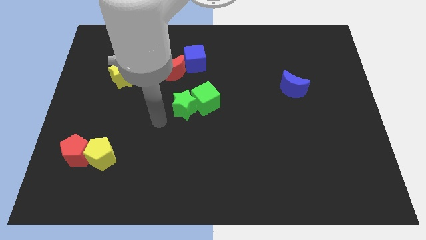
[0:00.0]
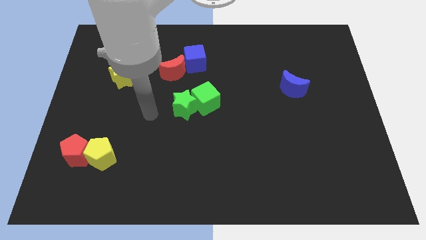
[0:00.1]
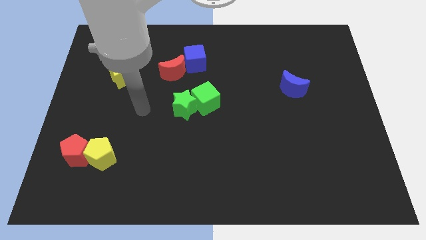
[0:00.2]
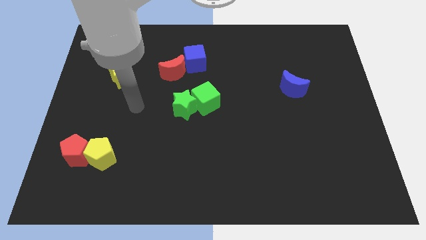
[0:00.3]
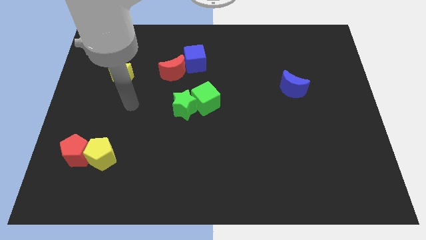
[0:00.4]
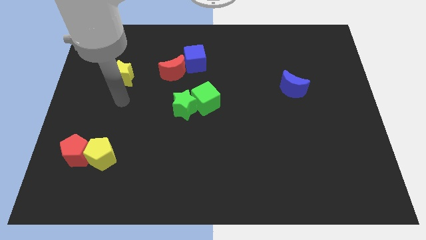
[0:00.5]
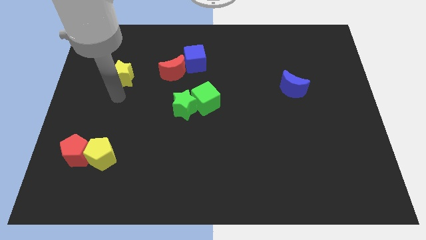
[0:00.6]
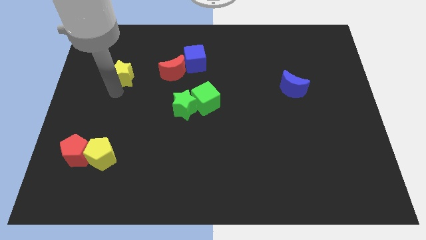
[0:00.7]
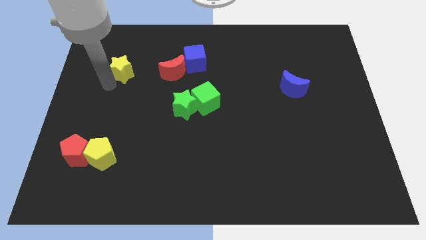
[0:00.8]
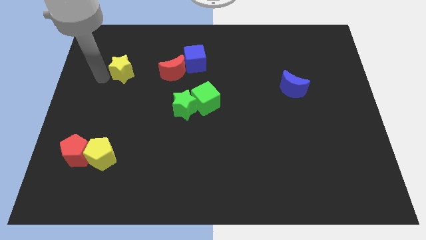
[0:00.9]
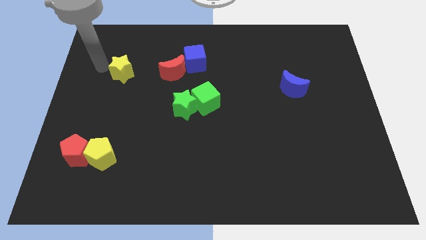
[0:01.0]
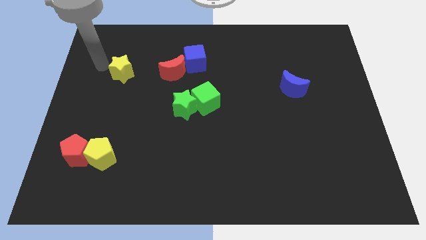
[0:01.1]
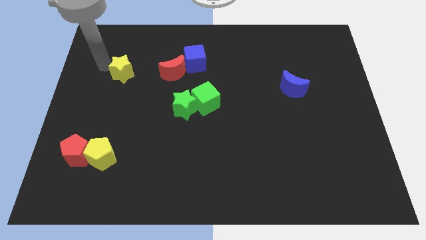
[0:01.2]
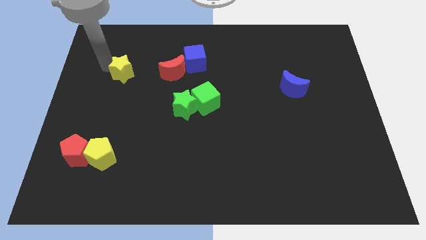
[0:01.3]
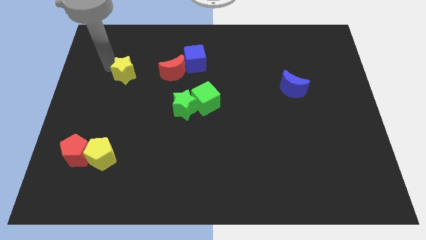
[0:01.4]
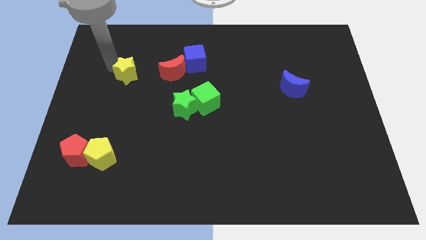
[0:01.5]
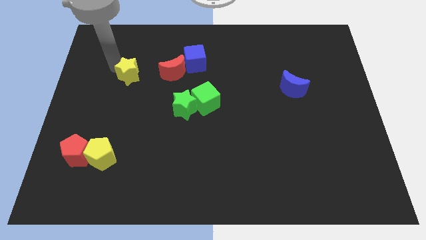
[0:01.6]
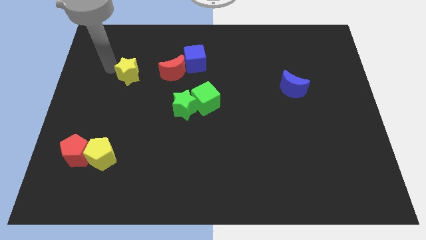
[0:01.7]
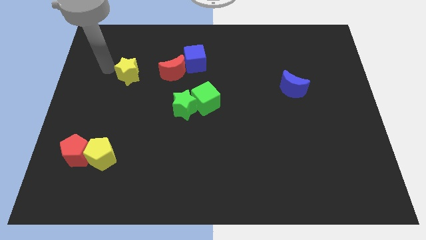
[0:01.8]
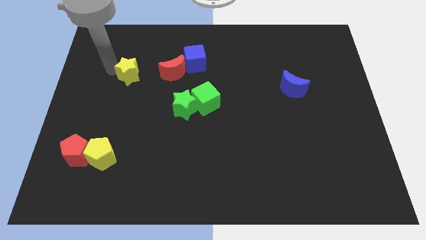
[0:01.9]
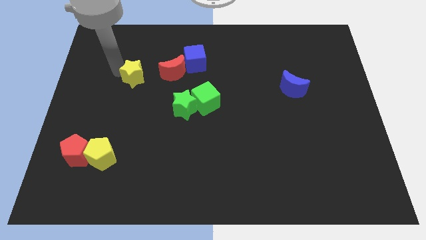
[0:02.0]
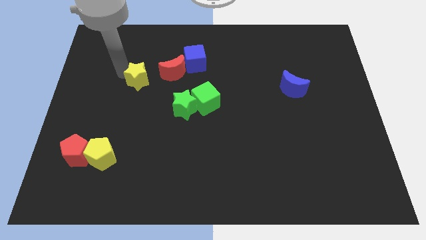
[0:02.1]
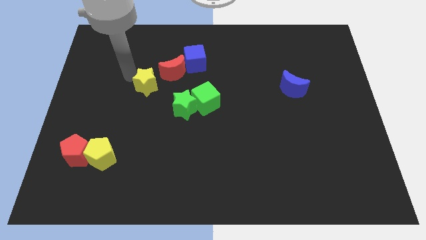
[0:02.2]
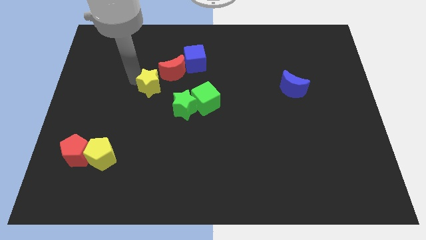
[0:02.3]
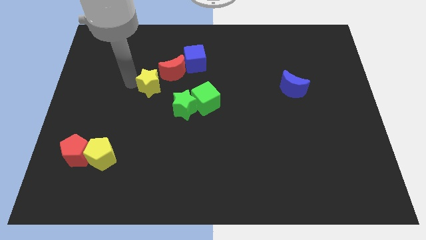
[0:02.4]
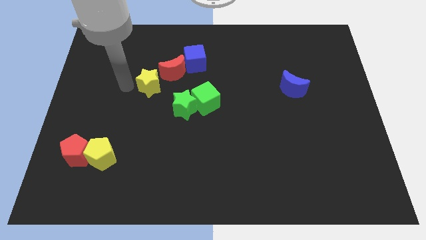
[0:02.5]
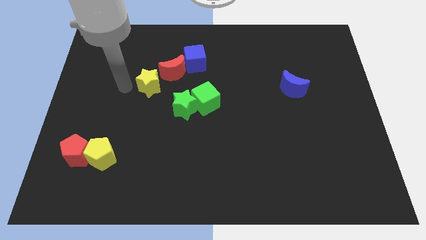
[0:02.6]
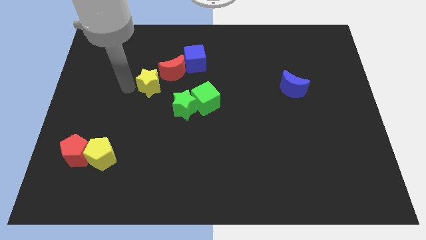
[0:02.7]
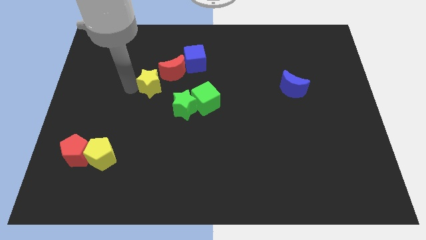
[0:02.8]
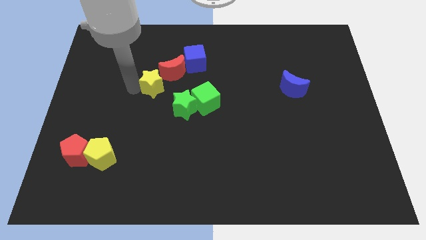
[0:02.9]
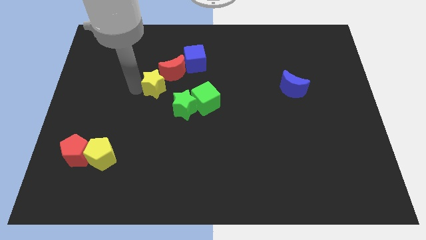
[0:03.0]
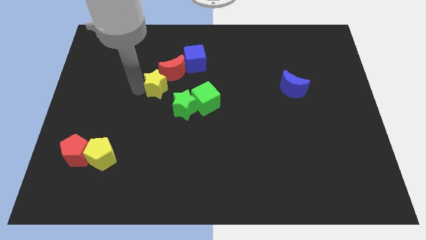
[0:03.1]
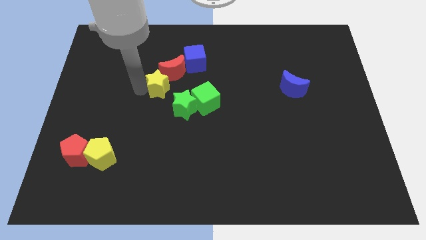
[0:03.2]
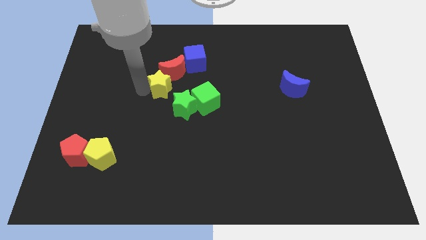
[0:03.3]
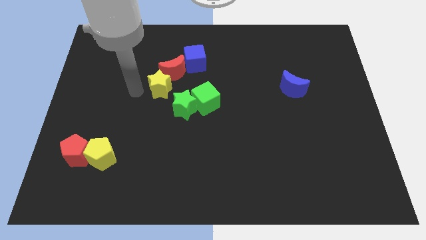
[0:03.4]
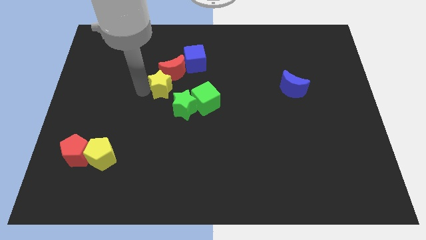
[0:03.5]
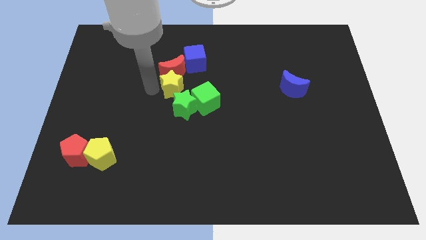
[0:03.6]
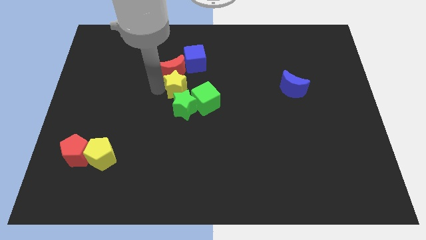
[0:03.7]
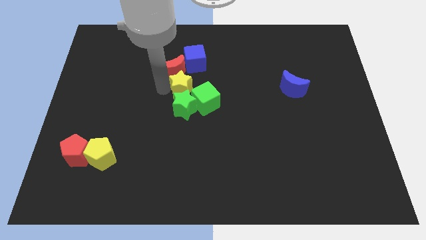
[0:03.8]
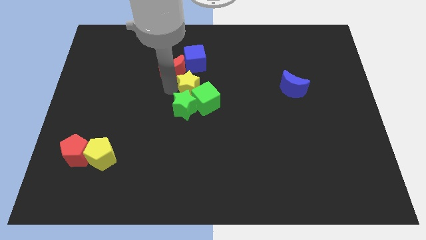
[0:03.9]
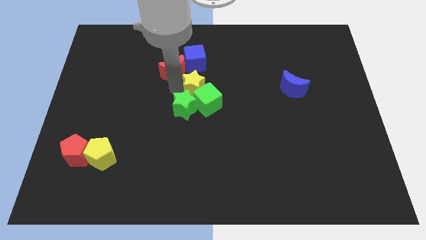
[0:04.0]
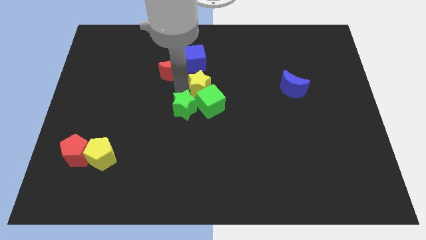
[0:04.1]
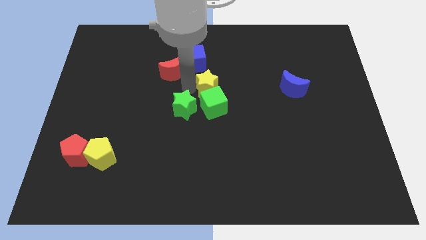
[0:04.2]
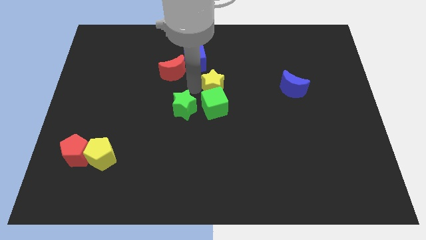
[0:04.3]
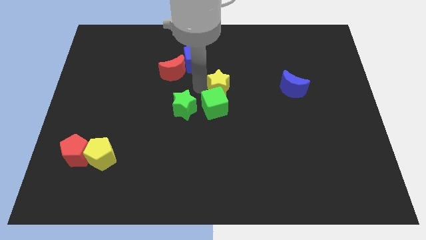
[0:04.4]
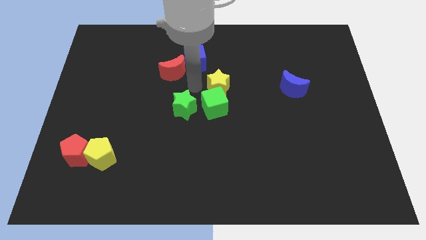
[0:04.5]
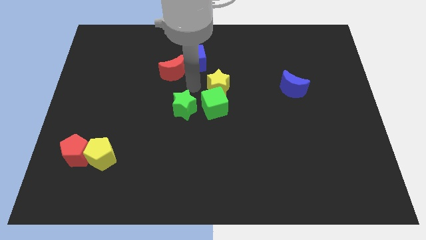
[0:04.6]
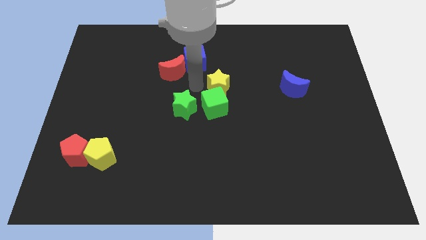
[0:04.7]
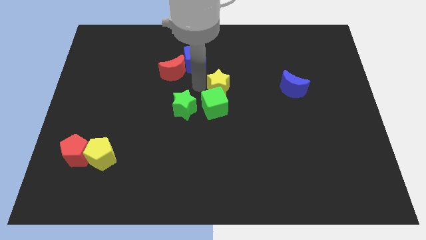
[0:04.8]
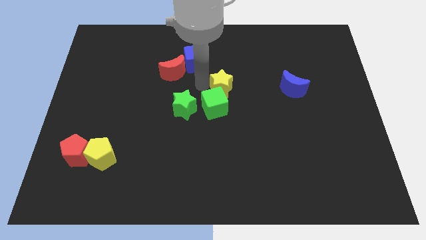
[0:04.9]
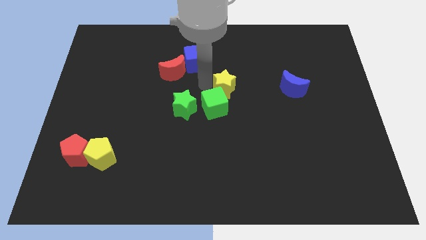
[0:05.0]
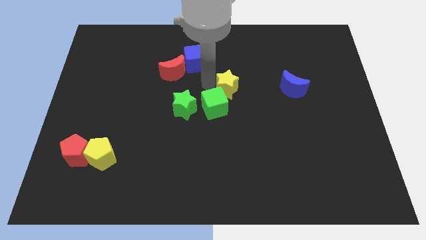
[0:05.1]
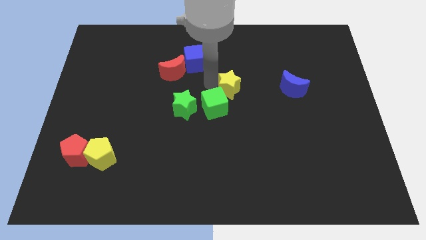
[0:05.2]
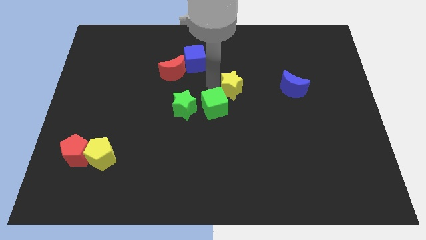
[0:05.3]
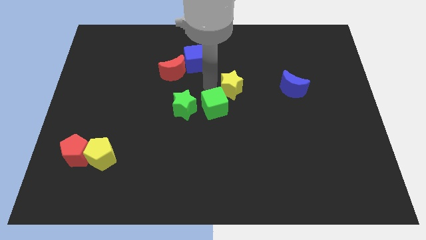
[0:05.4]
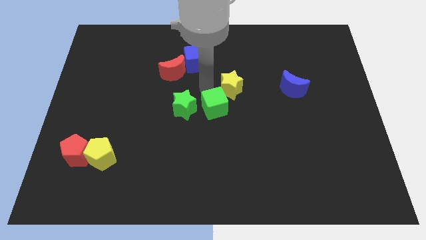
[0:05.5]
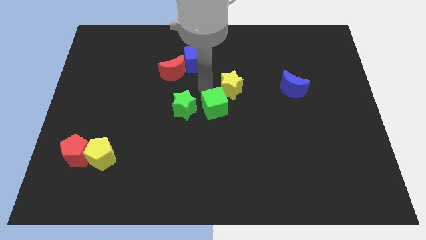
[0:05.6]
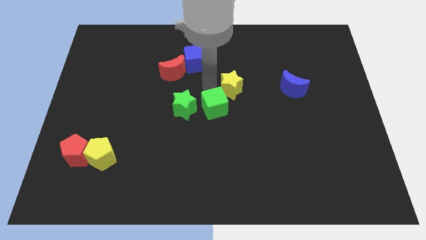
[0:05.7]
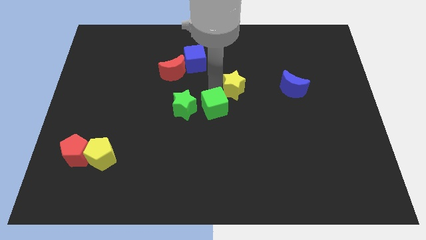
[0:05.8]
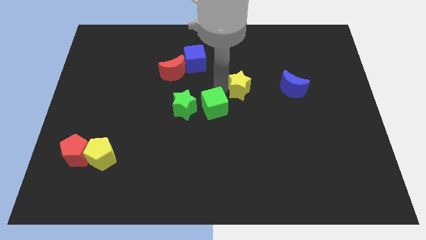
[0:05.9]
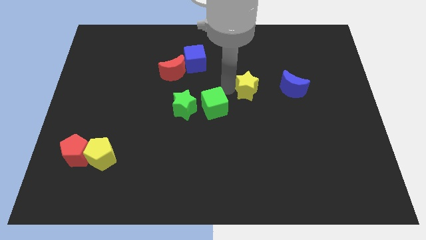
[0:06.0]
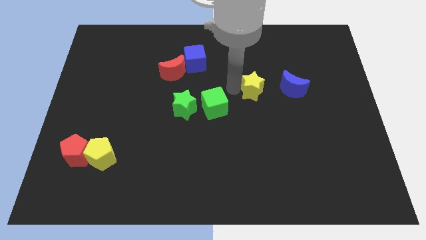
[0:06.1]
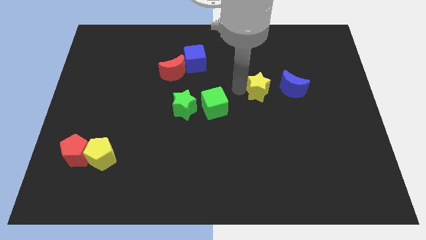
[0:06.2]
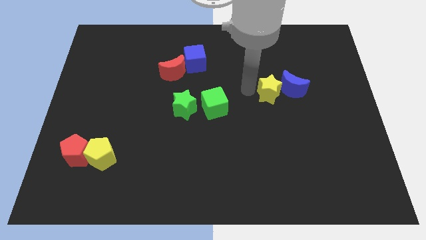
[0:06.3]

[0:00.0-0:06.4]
push the yellow star next to the blue moon

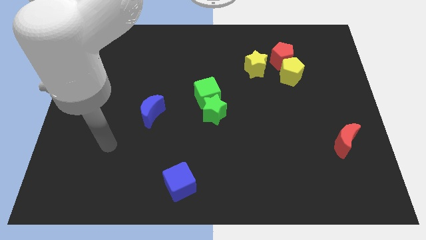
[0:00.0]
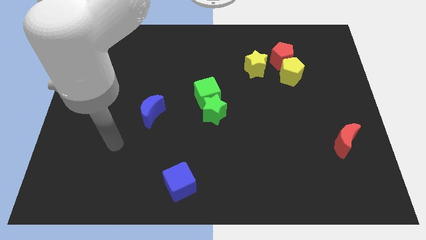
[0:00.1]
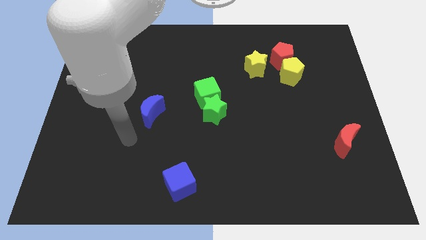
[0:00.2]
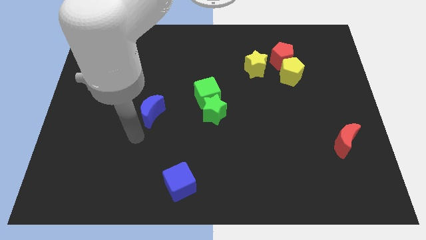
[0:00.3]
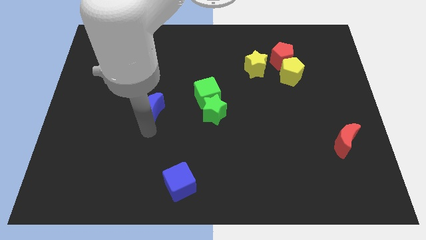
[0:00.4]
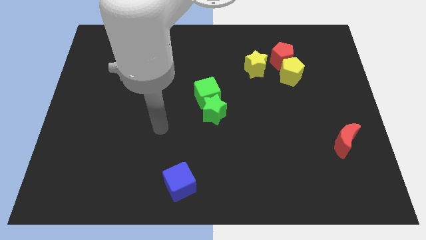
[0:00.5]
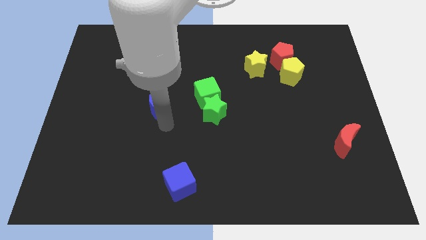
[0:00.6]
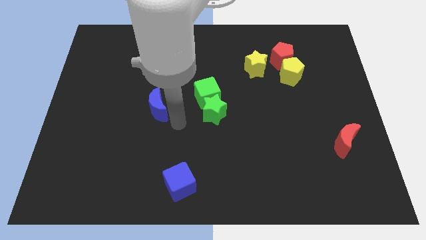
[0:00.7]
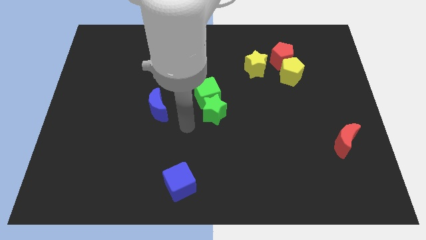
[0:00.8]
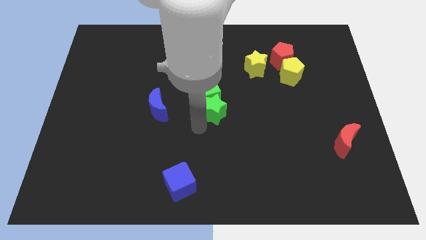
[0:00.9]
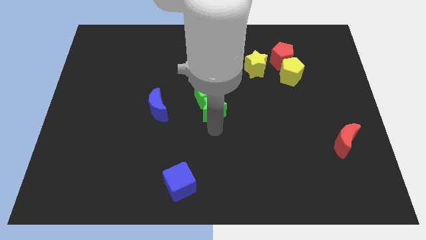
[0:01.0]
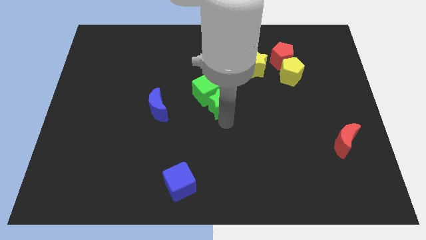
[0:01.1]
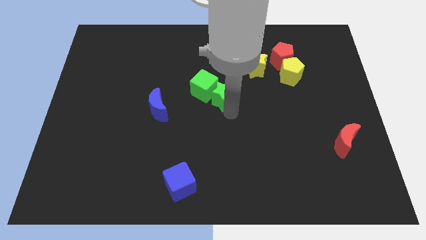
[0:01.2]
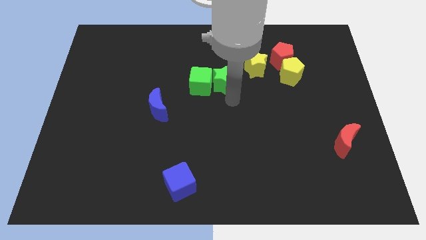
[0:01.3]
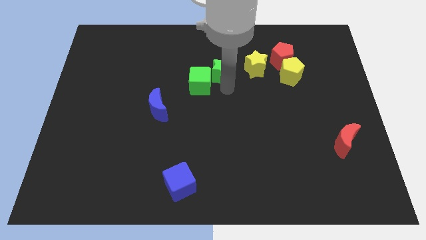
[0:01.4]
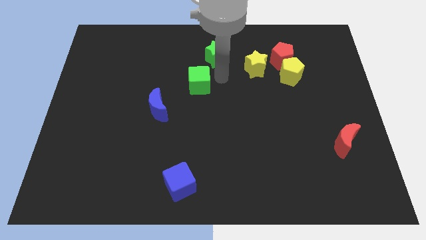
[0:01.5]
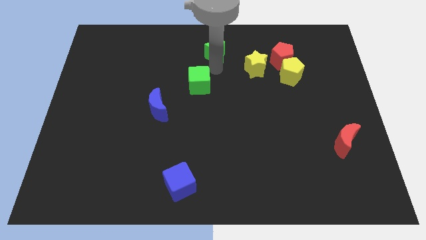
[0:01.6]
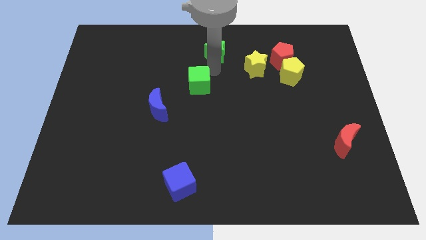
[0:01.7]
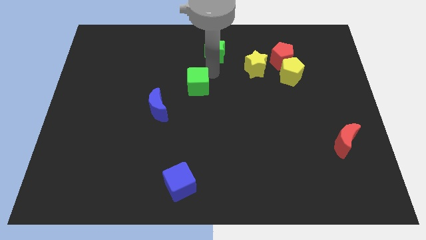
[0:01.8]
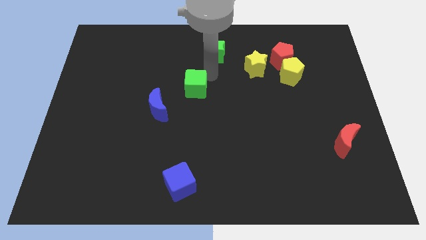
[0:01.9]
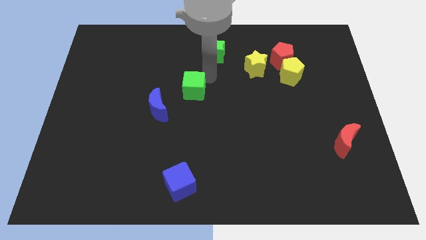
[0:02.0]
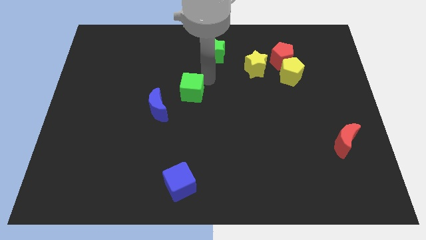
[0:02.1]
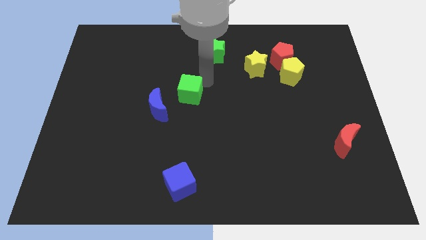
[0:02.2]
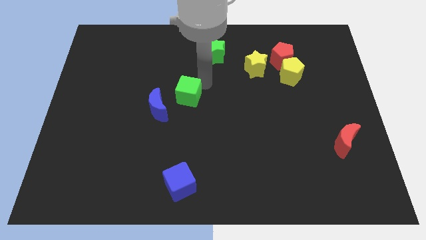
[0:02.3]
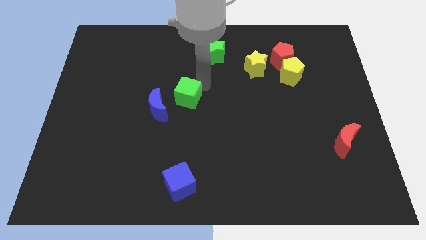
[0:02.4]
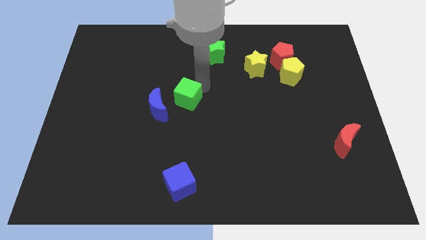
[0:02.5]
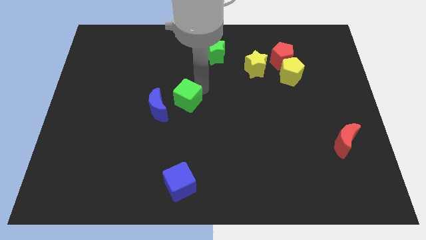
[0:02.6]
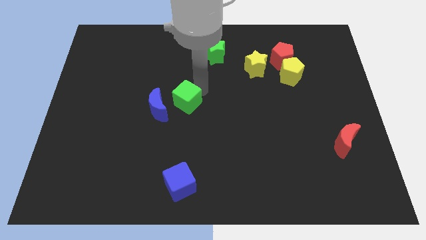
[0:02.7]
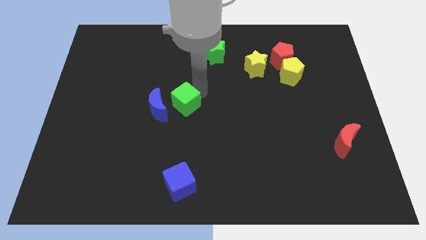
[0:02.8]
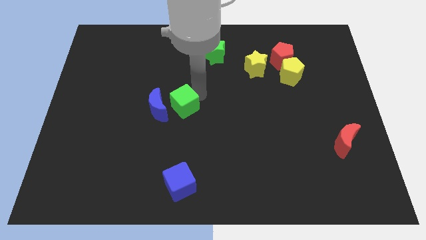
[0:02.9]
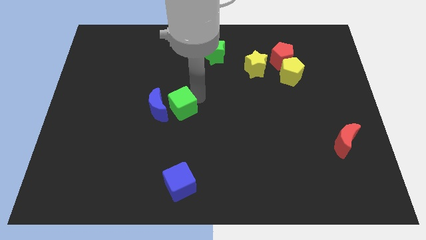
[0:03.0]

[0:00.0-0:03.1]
push the green cube towards the blue moon
